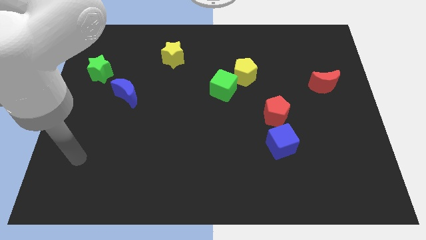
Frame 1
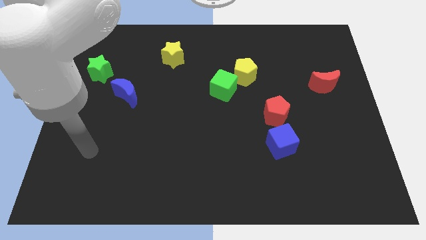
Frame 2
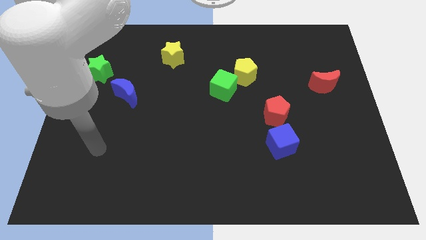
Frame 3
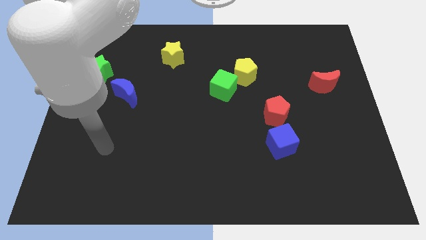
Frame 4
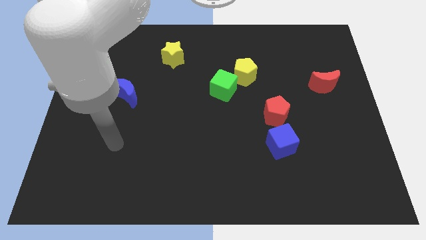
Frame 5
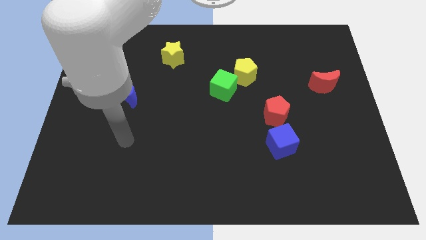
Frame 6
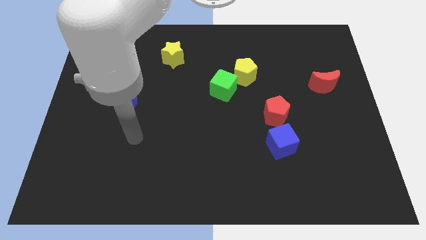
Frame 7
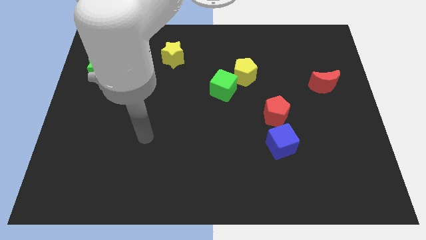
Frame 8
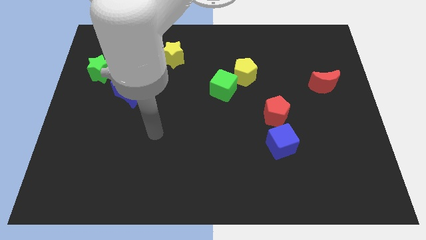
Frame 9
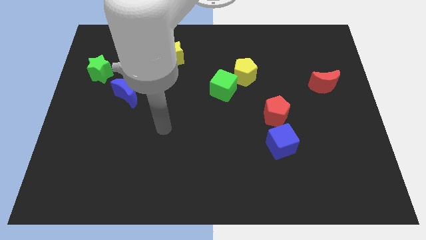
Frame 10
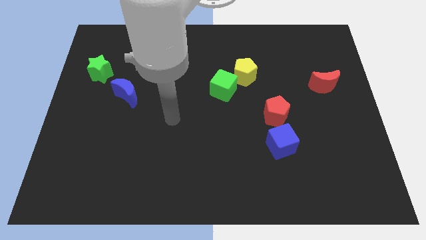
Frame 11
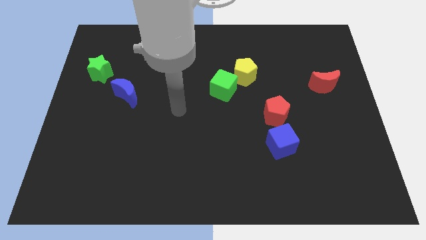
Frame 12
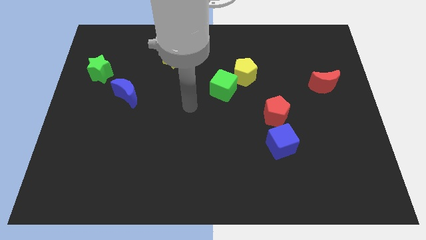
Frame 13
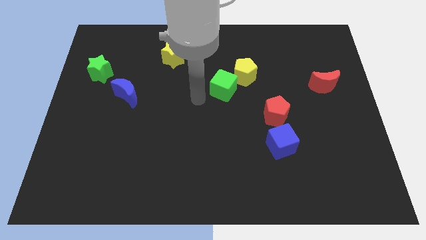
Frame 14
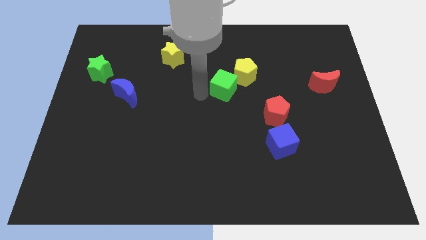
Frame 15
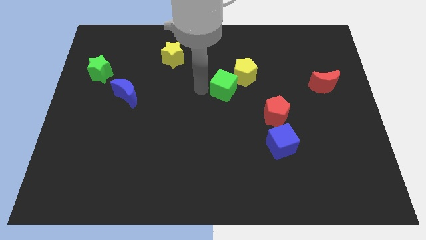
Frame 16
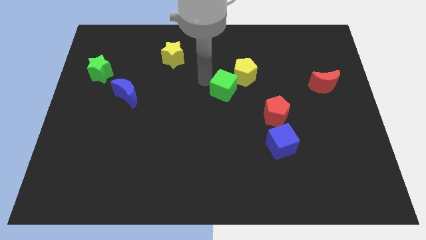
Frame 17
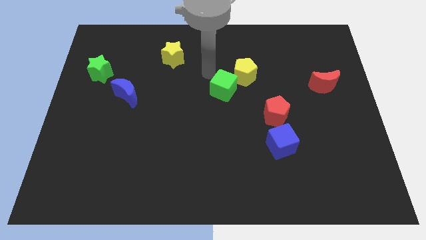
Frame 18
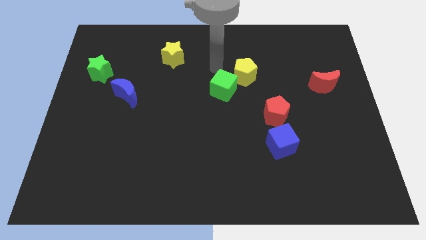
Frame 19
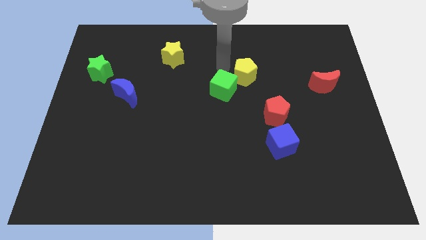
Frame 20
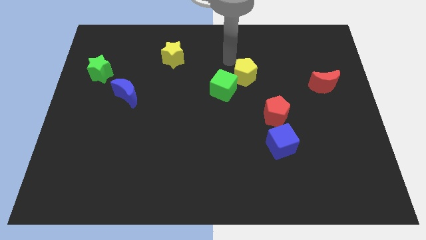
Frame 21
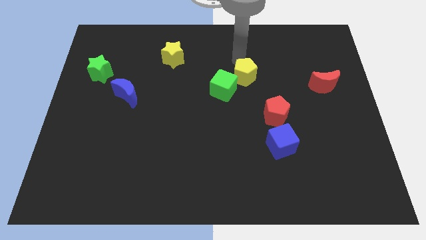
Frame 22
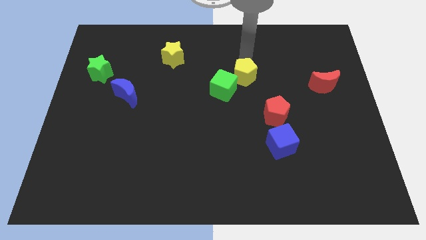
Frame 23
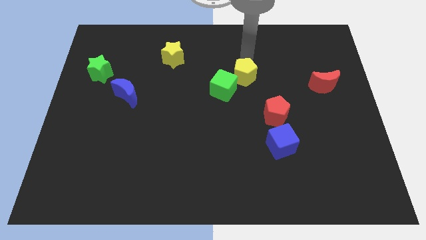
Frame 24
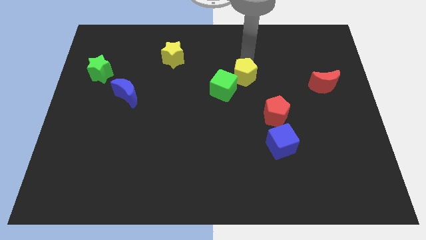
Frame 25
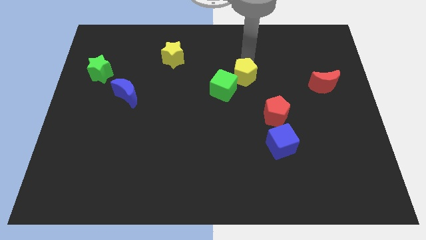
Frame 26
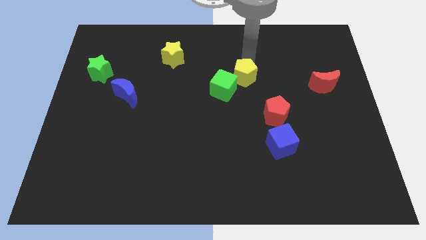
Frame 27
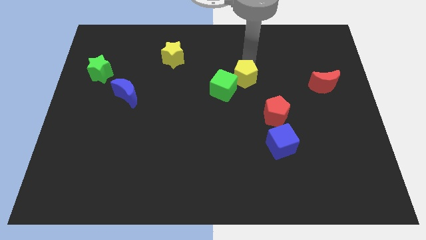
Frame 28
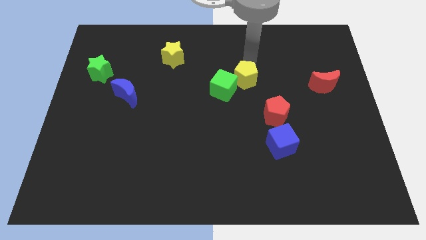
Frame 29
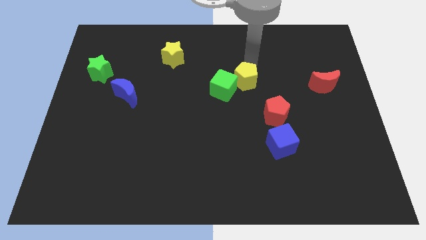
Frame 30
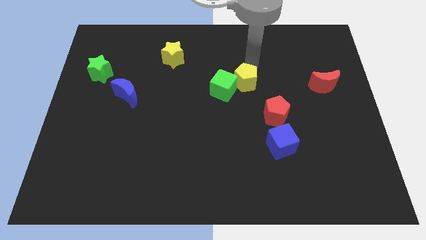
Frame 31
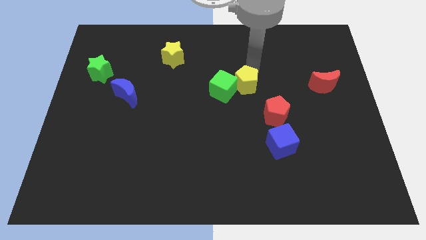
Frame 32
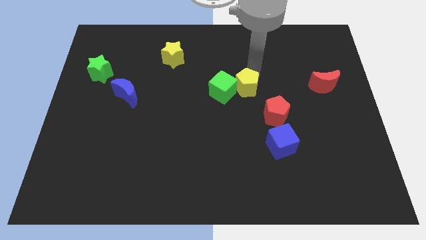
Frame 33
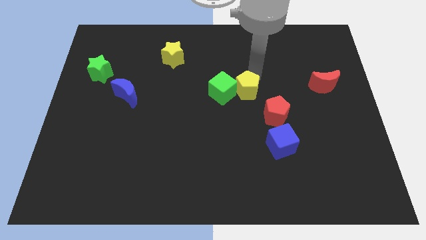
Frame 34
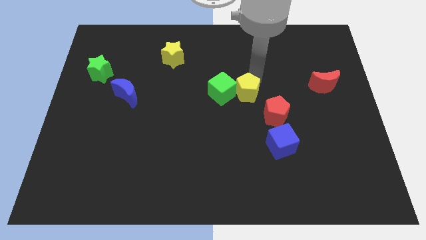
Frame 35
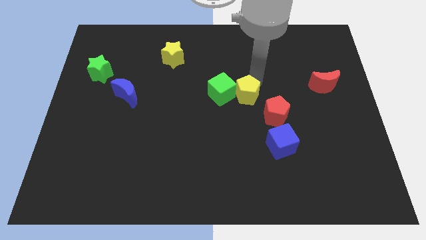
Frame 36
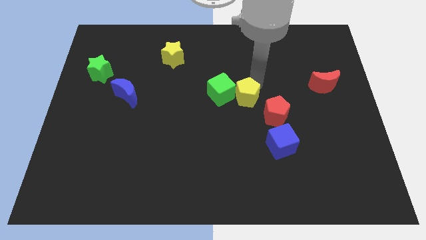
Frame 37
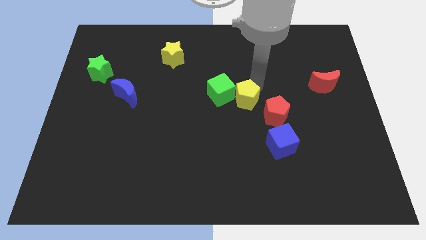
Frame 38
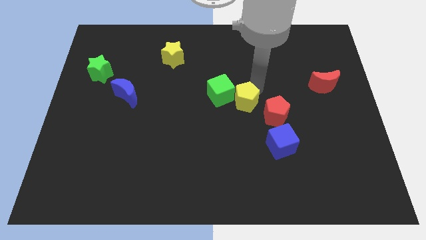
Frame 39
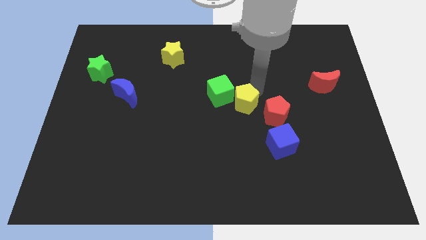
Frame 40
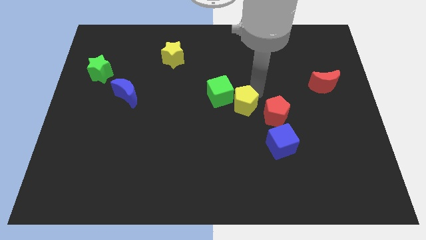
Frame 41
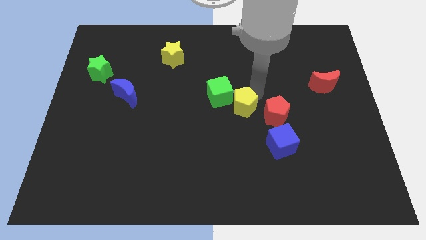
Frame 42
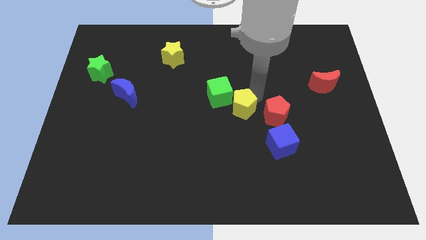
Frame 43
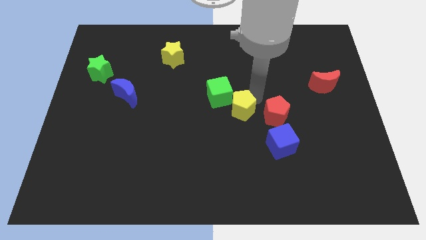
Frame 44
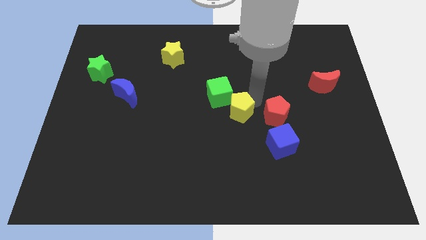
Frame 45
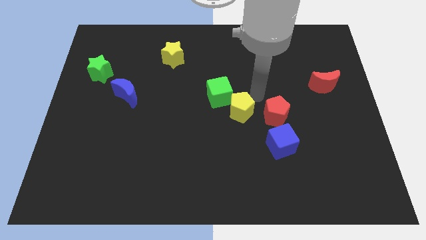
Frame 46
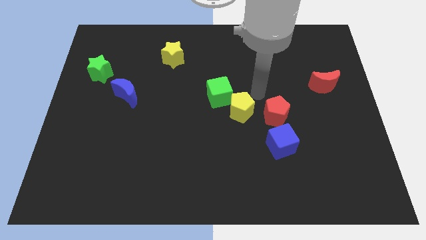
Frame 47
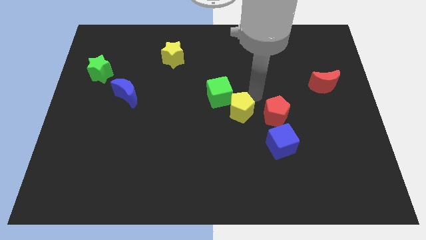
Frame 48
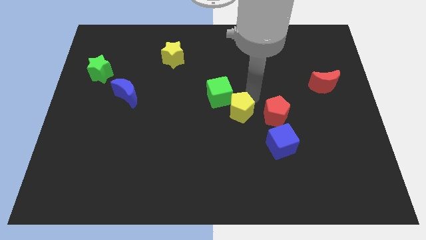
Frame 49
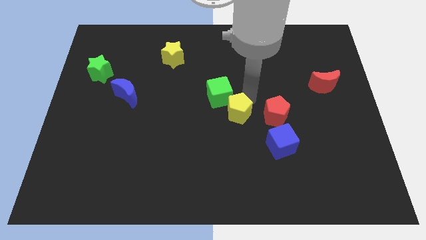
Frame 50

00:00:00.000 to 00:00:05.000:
move the yellow pentagon to the bottom of the green cube

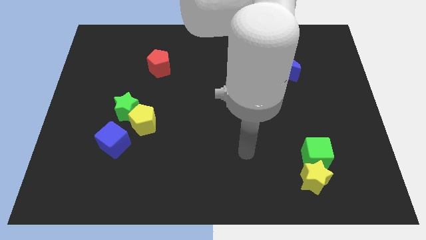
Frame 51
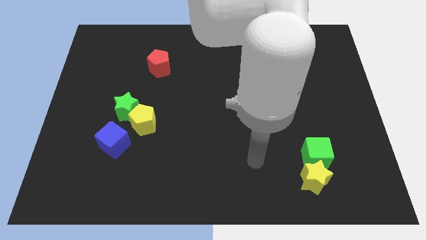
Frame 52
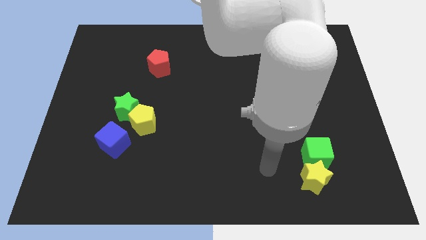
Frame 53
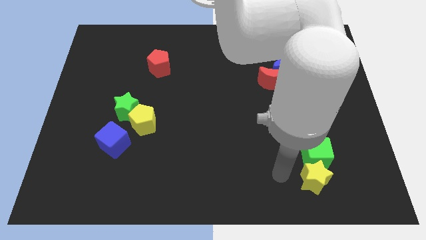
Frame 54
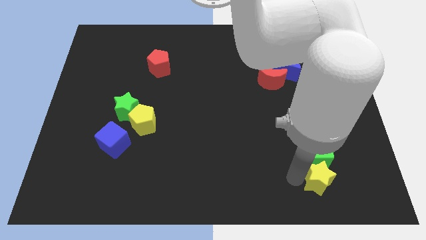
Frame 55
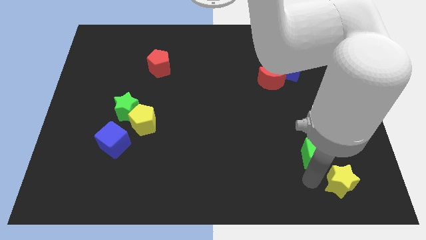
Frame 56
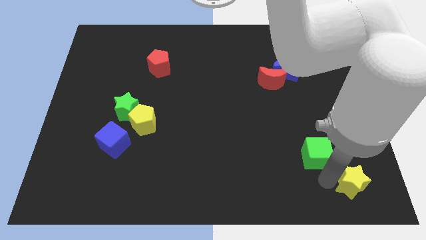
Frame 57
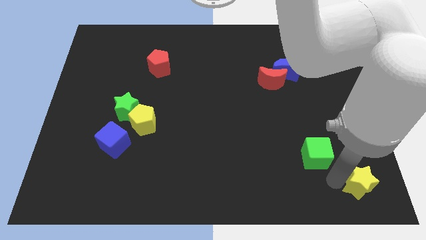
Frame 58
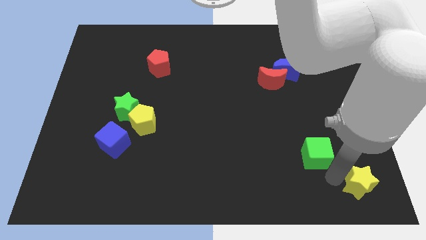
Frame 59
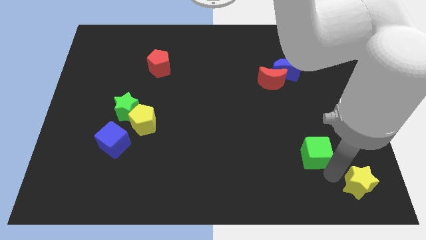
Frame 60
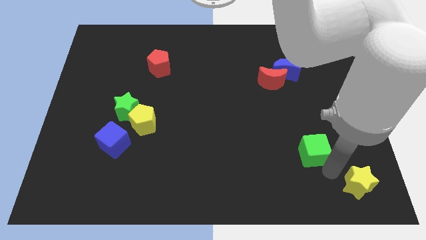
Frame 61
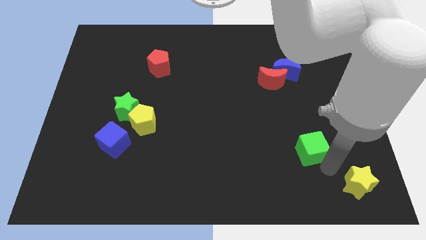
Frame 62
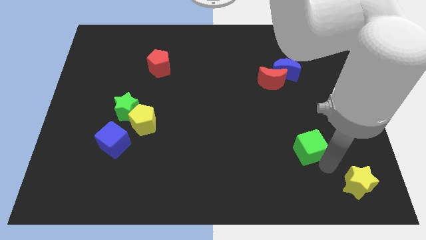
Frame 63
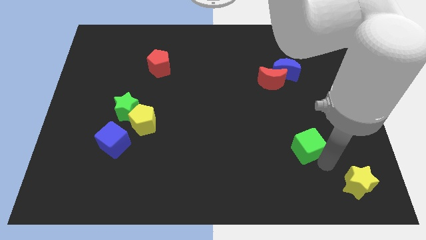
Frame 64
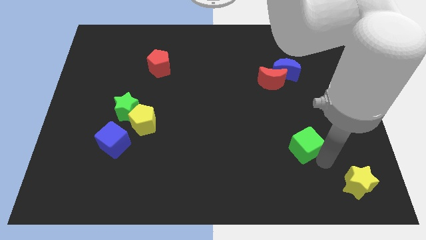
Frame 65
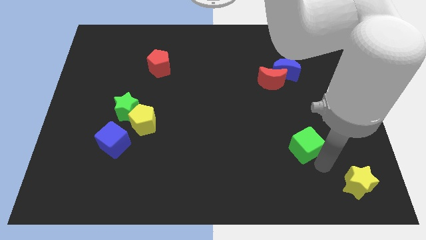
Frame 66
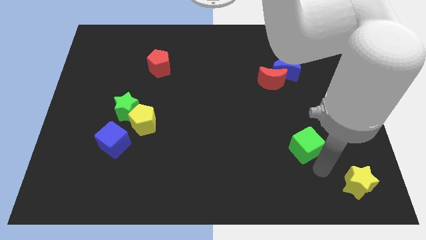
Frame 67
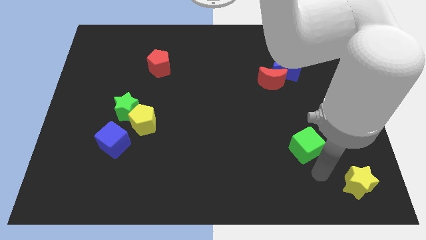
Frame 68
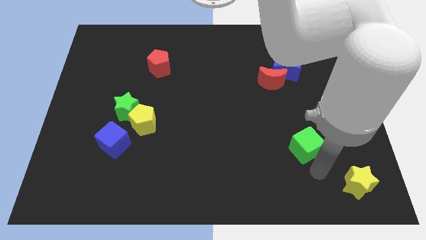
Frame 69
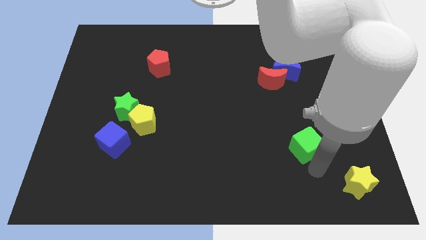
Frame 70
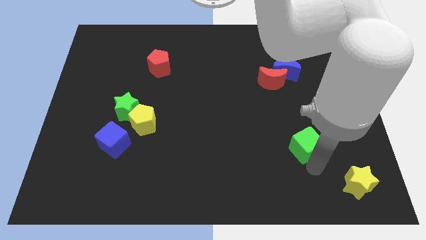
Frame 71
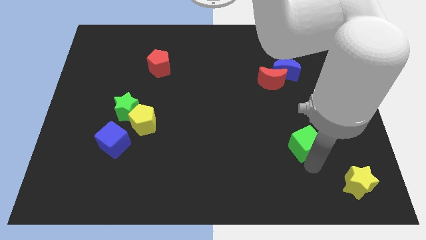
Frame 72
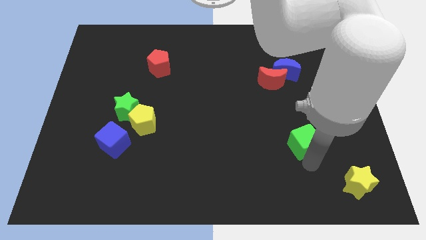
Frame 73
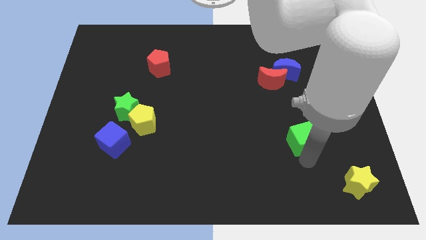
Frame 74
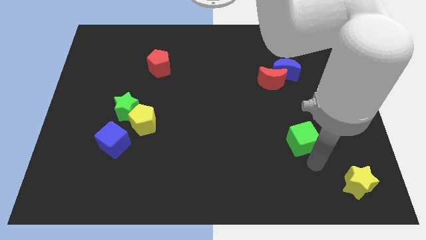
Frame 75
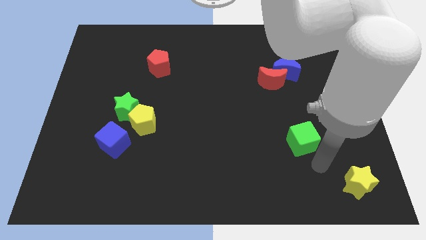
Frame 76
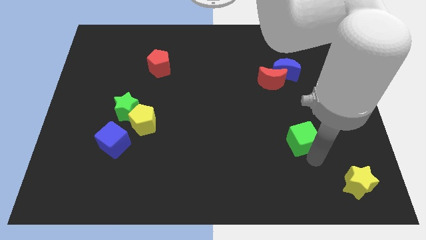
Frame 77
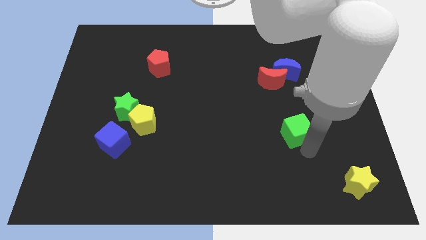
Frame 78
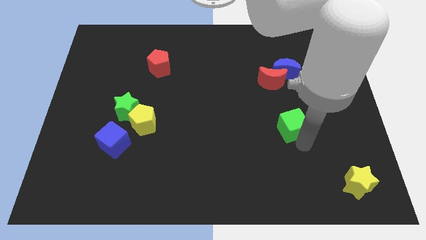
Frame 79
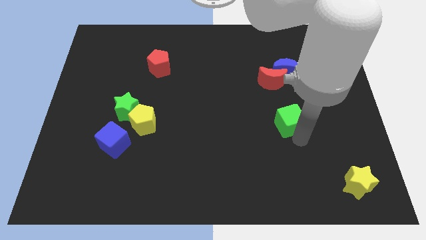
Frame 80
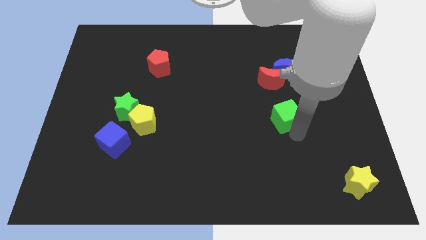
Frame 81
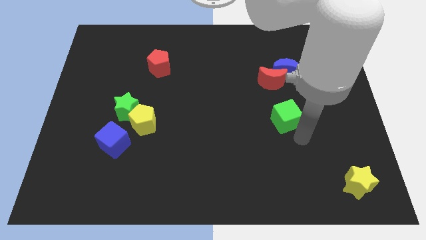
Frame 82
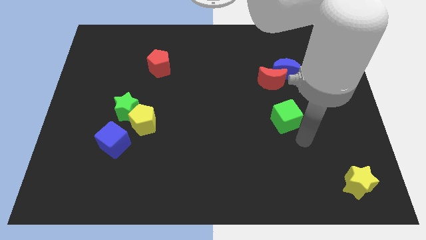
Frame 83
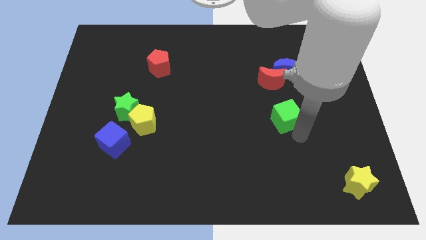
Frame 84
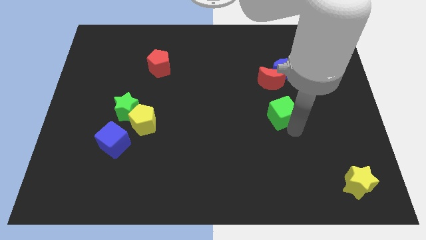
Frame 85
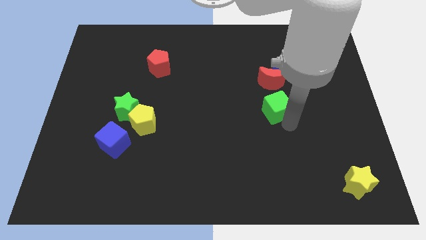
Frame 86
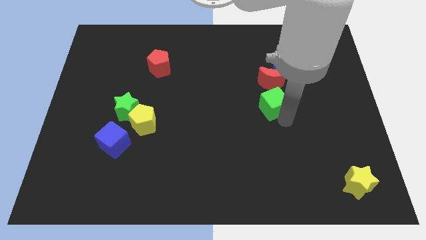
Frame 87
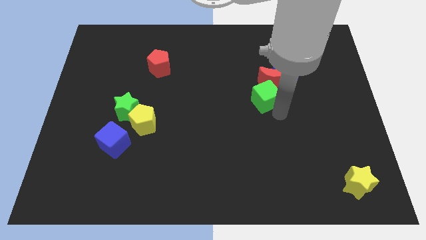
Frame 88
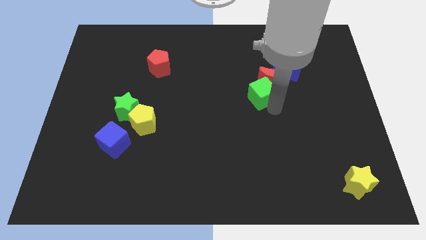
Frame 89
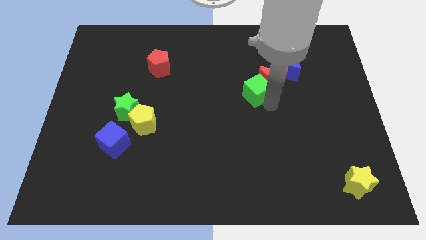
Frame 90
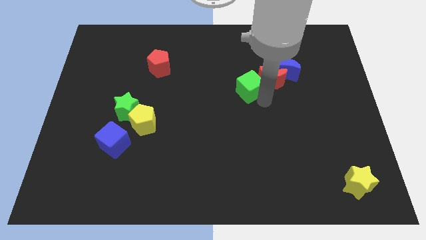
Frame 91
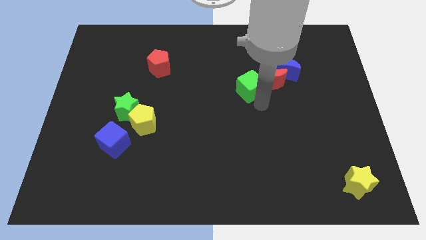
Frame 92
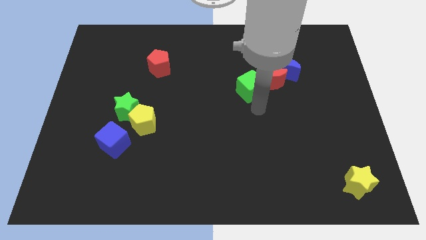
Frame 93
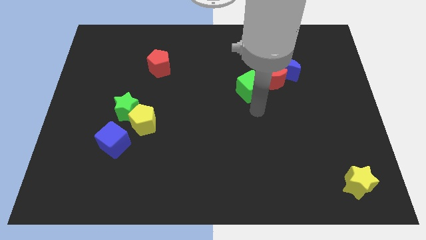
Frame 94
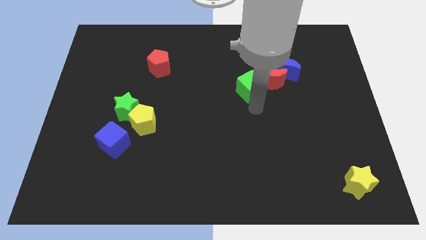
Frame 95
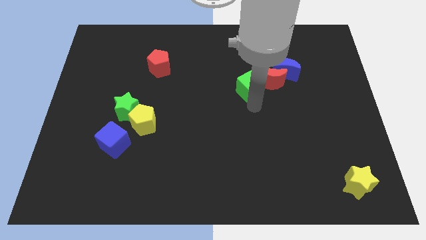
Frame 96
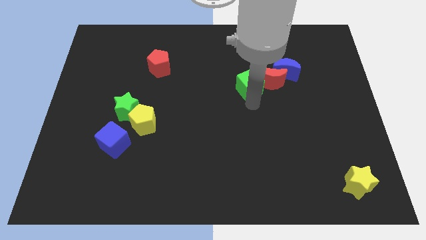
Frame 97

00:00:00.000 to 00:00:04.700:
push the green cube to the left side of the blue moon
